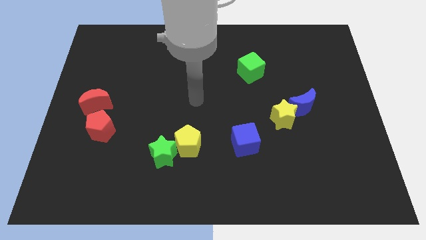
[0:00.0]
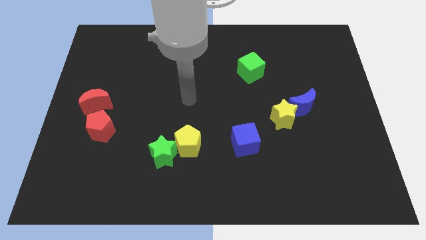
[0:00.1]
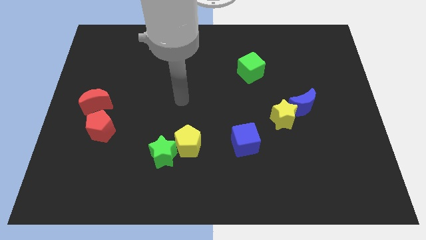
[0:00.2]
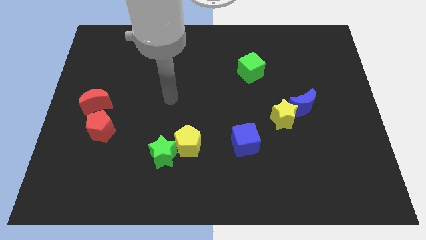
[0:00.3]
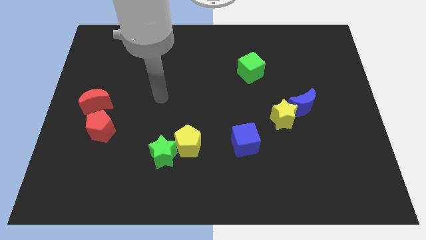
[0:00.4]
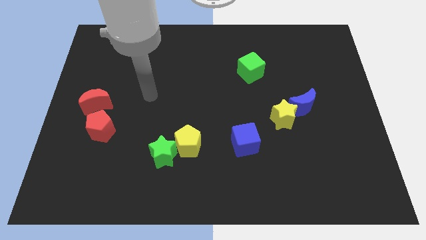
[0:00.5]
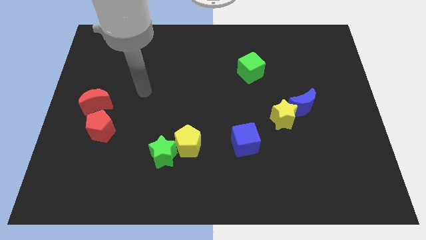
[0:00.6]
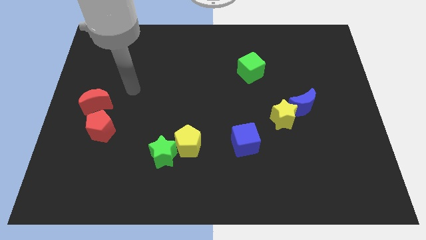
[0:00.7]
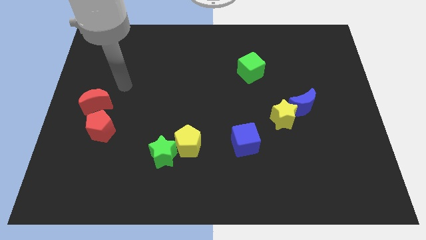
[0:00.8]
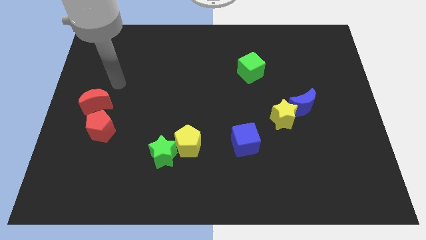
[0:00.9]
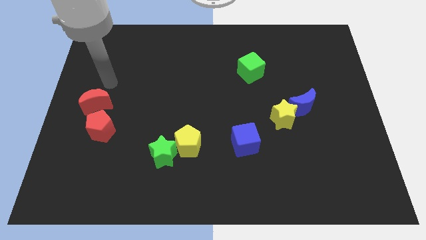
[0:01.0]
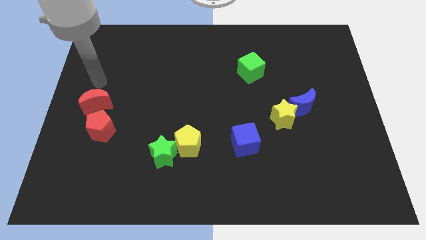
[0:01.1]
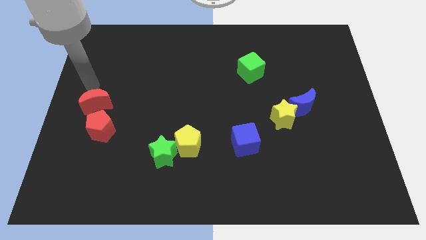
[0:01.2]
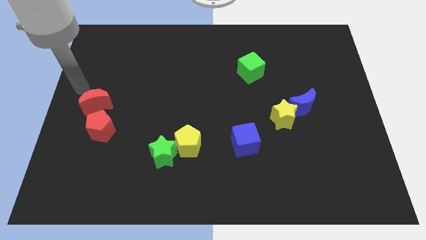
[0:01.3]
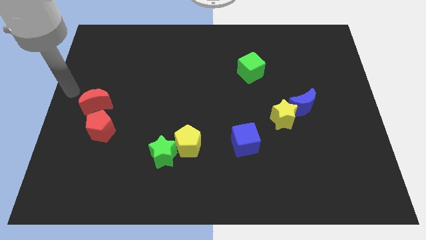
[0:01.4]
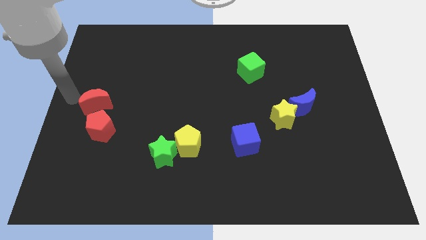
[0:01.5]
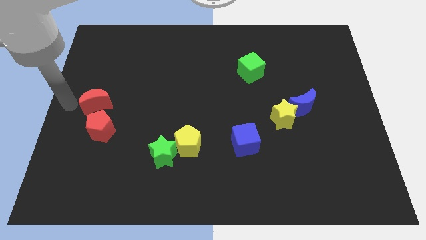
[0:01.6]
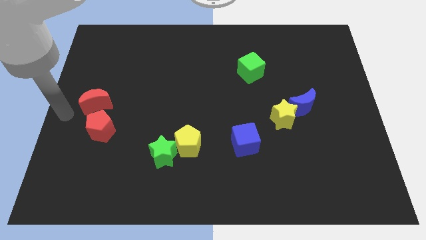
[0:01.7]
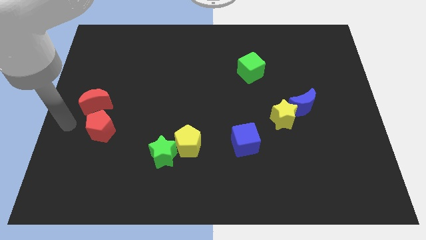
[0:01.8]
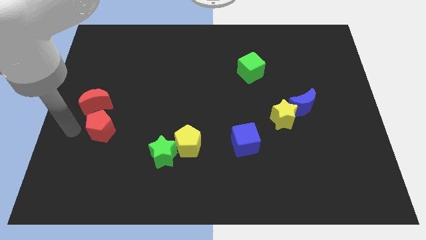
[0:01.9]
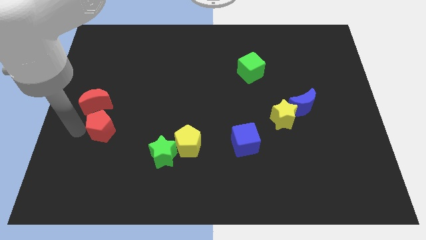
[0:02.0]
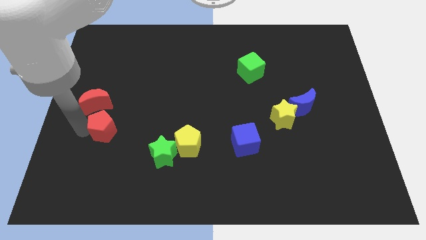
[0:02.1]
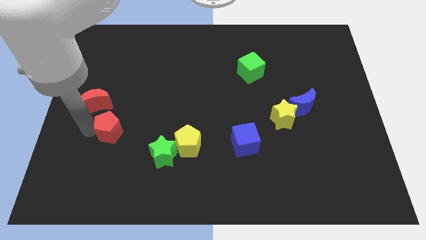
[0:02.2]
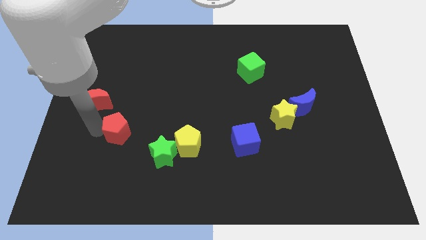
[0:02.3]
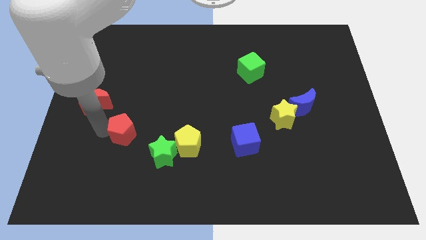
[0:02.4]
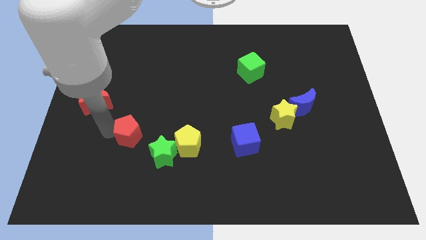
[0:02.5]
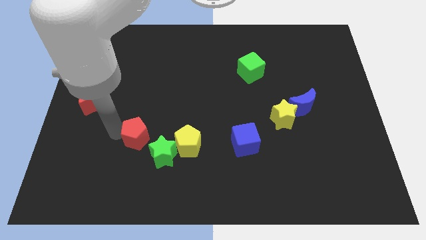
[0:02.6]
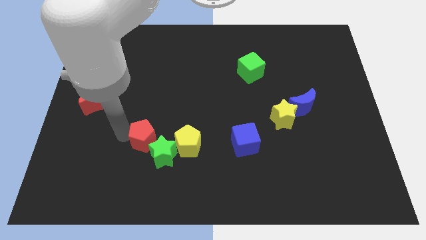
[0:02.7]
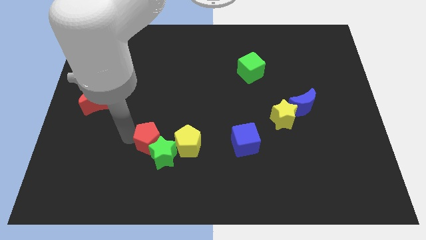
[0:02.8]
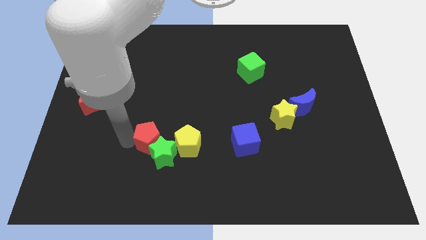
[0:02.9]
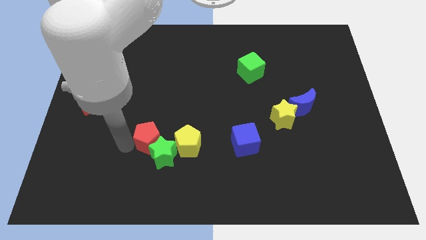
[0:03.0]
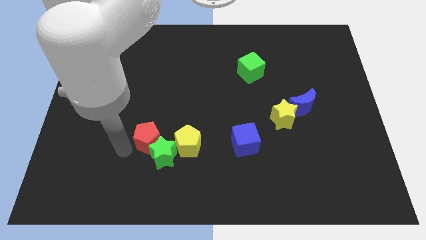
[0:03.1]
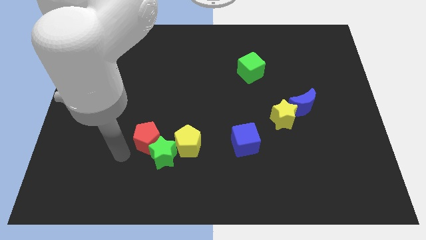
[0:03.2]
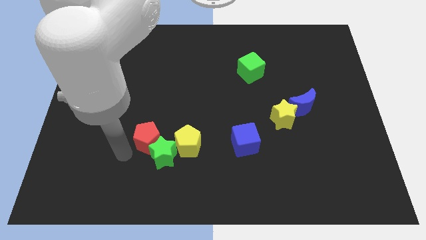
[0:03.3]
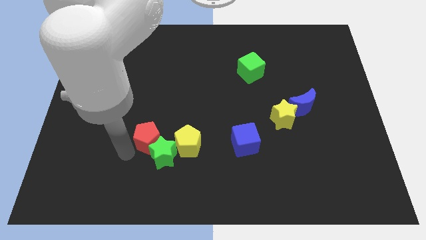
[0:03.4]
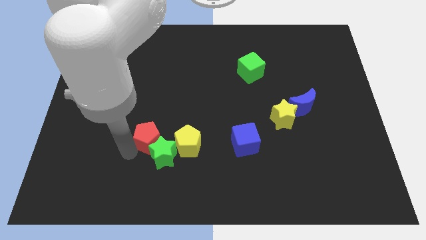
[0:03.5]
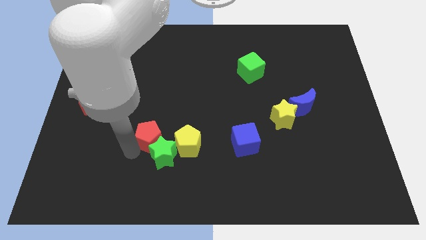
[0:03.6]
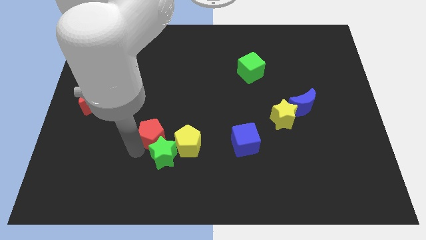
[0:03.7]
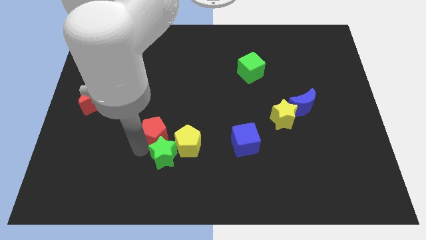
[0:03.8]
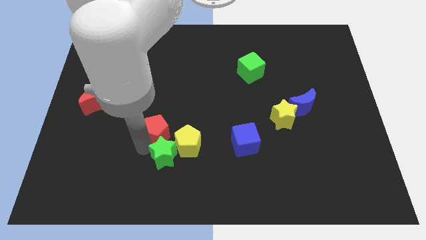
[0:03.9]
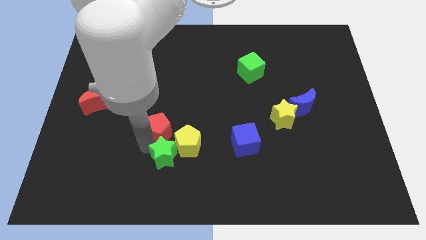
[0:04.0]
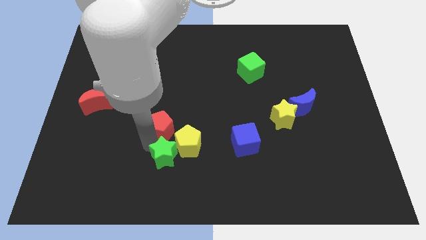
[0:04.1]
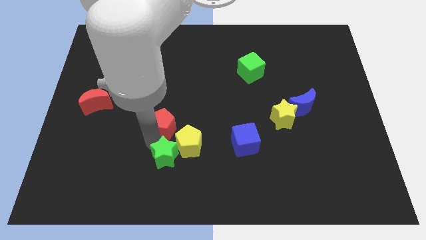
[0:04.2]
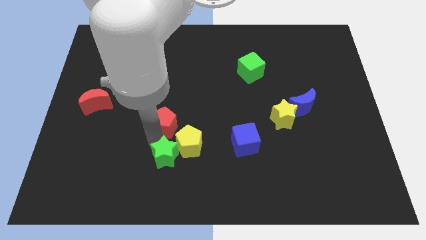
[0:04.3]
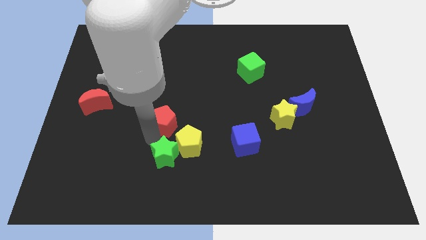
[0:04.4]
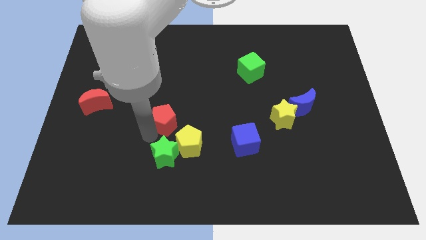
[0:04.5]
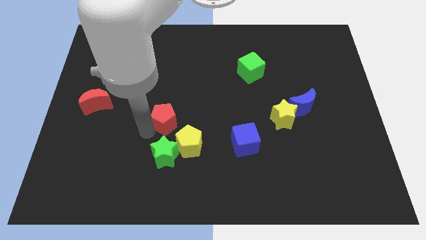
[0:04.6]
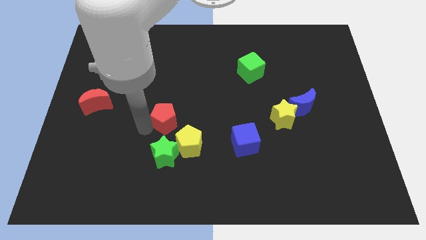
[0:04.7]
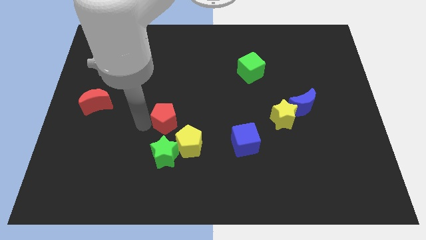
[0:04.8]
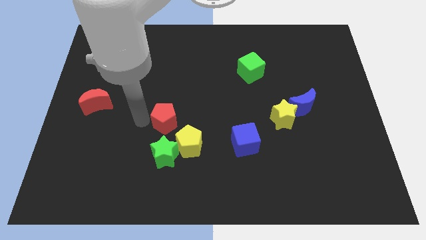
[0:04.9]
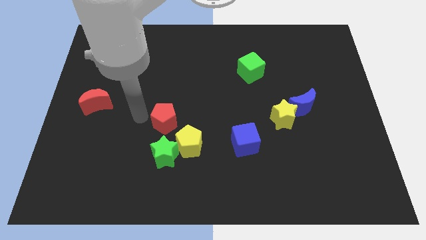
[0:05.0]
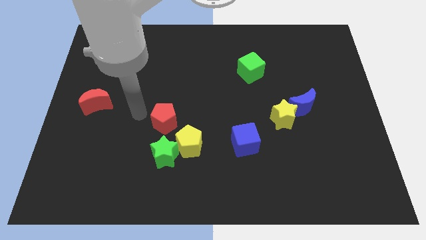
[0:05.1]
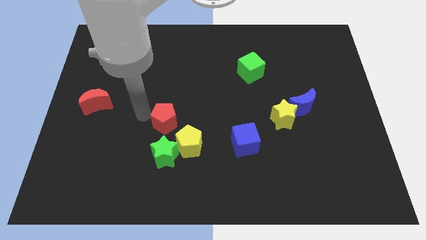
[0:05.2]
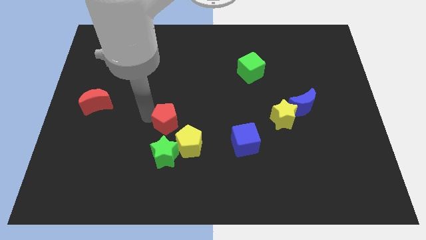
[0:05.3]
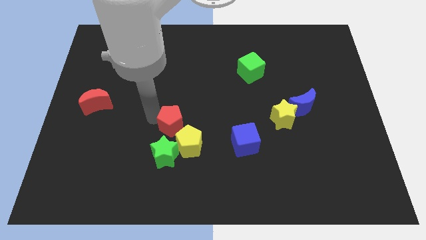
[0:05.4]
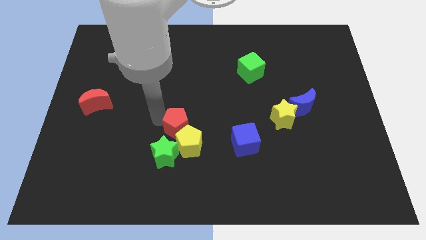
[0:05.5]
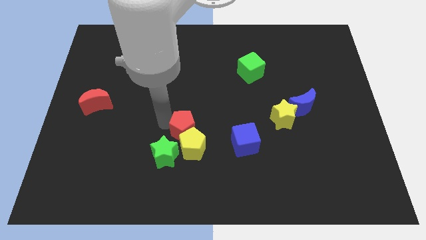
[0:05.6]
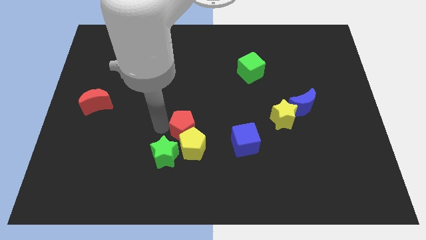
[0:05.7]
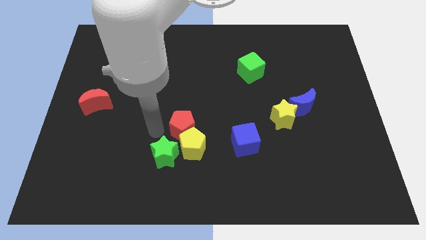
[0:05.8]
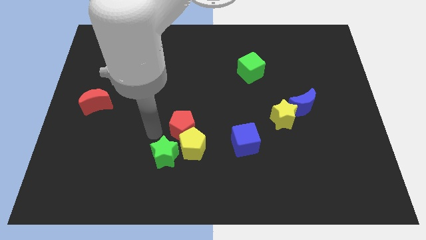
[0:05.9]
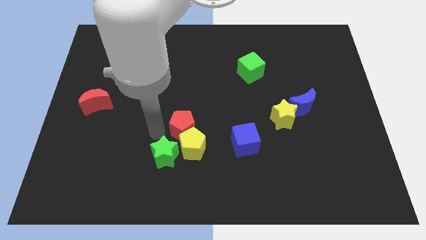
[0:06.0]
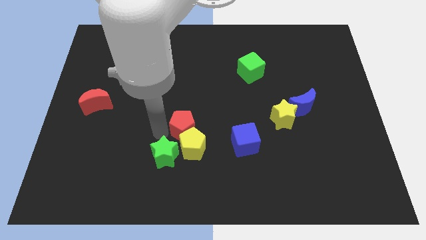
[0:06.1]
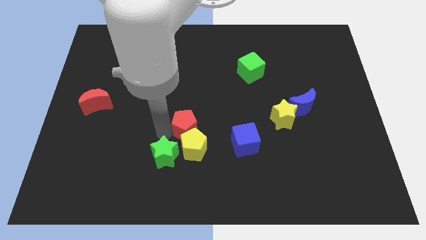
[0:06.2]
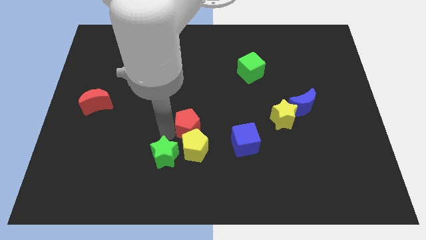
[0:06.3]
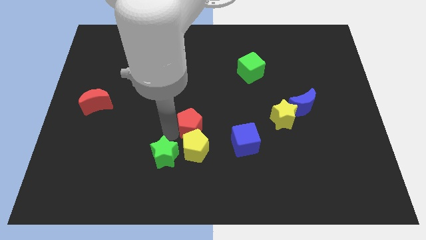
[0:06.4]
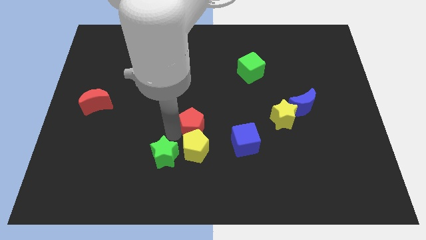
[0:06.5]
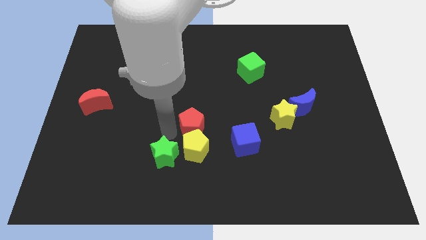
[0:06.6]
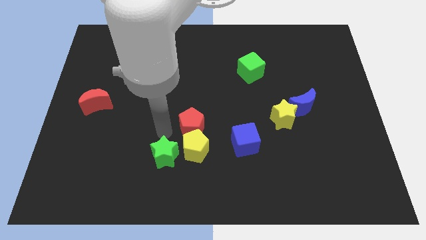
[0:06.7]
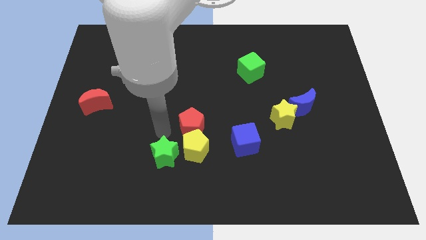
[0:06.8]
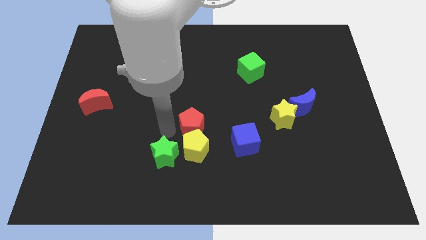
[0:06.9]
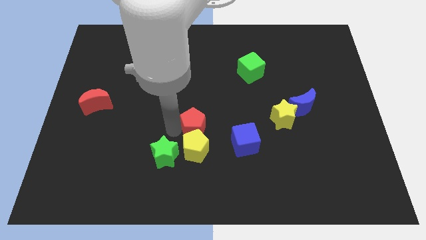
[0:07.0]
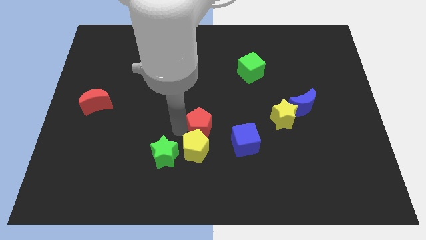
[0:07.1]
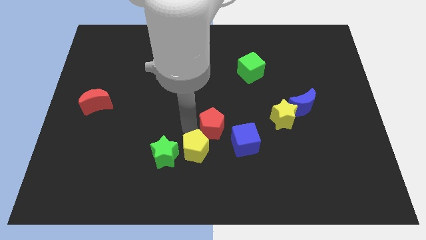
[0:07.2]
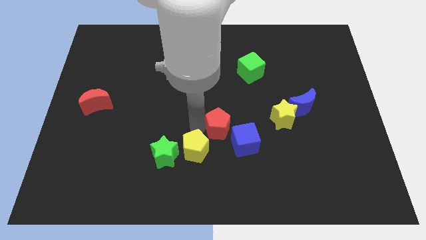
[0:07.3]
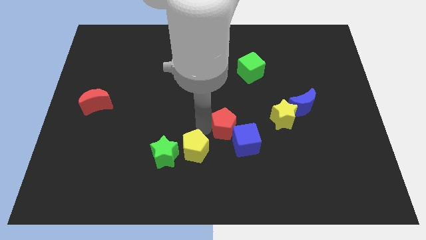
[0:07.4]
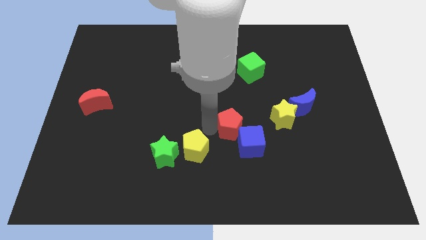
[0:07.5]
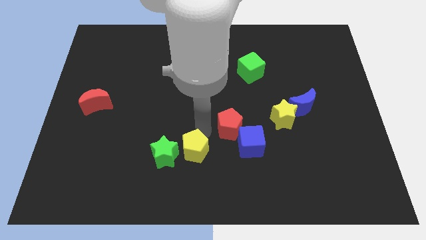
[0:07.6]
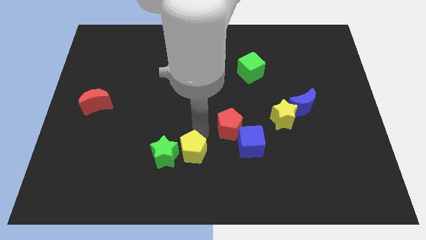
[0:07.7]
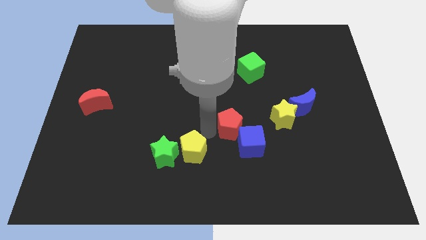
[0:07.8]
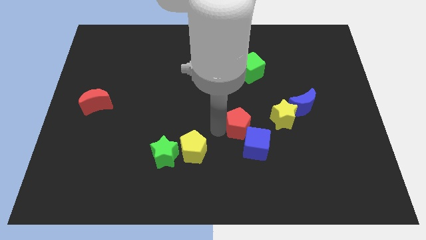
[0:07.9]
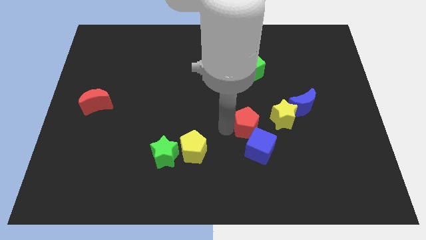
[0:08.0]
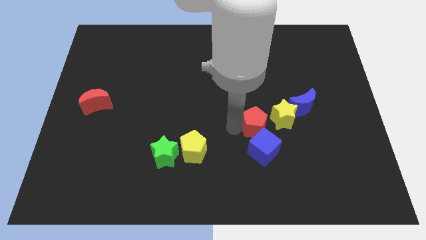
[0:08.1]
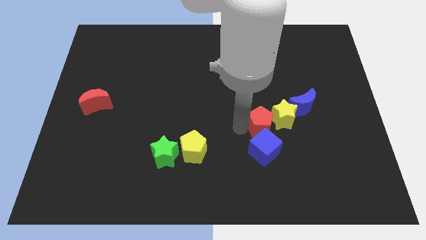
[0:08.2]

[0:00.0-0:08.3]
put the red pentagon to the yellow star
